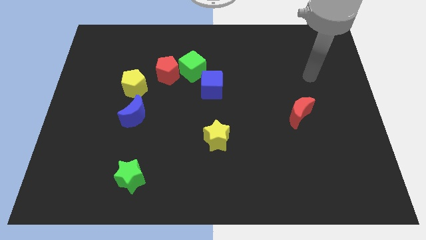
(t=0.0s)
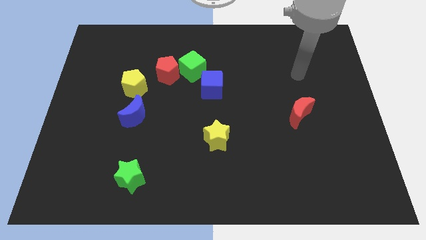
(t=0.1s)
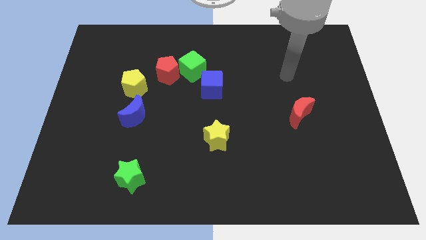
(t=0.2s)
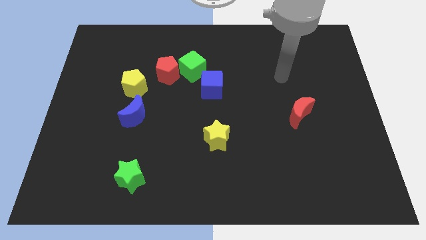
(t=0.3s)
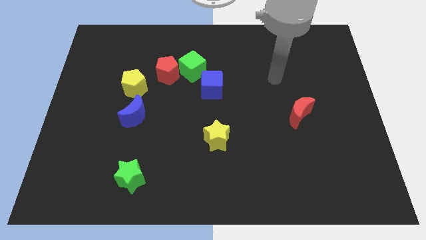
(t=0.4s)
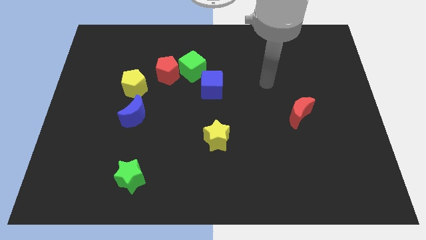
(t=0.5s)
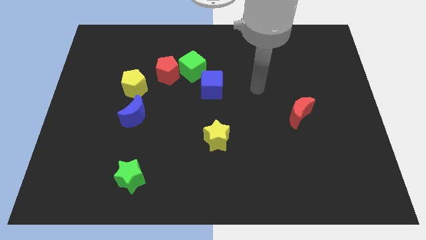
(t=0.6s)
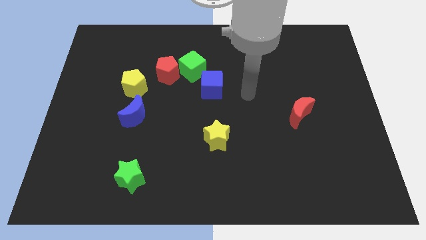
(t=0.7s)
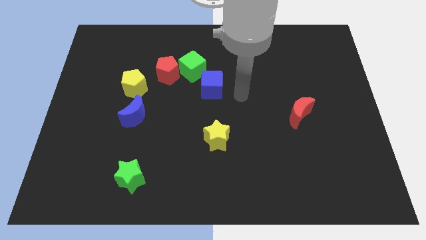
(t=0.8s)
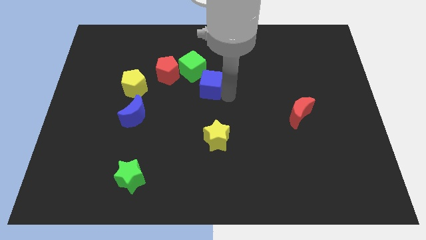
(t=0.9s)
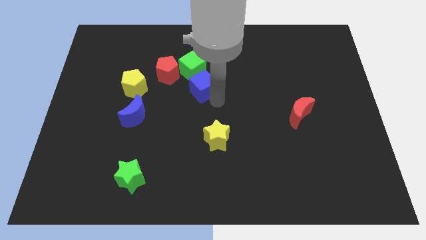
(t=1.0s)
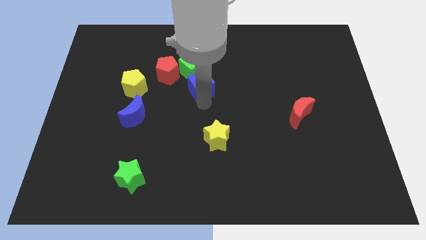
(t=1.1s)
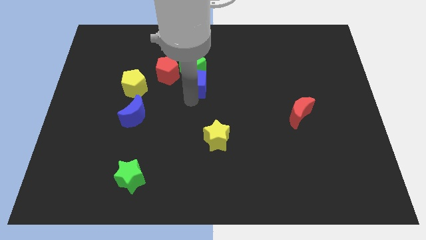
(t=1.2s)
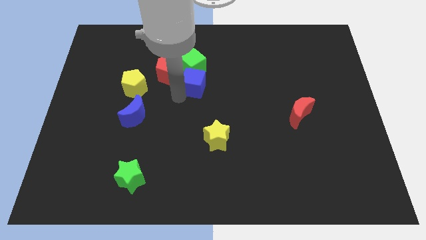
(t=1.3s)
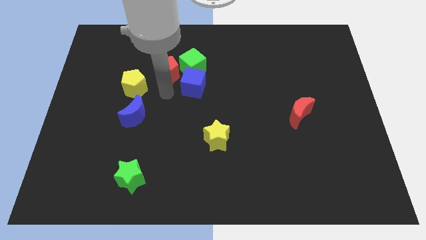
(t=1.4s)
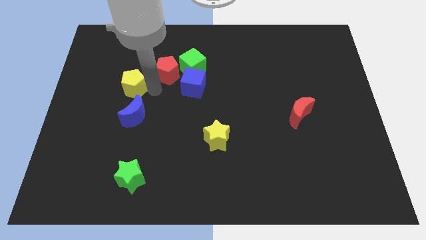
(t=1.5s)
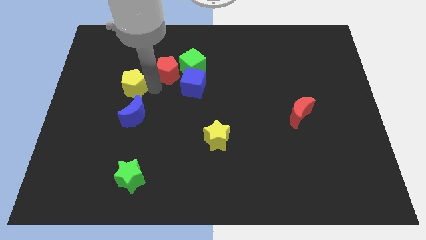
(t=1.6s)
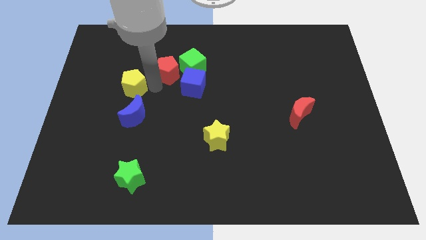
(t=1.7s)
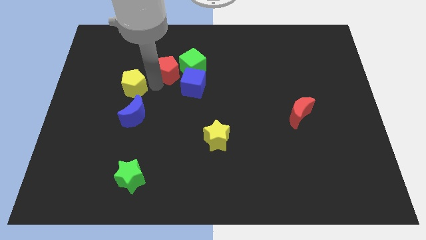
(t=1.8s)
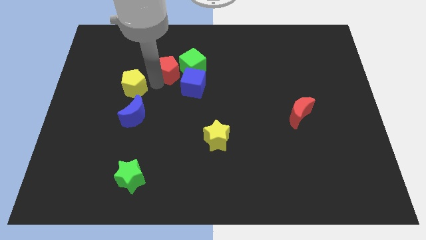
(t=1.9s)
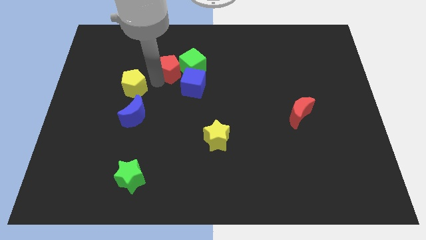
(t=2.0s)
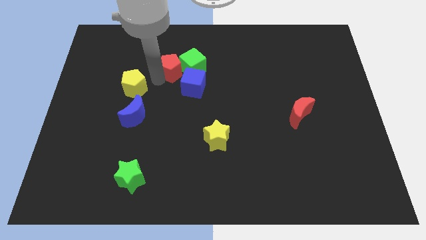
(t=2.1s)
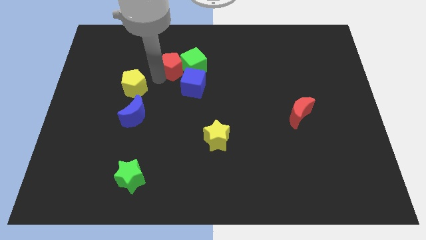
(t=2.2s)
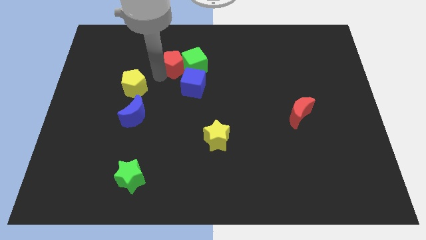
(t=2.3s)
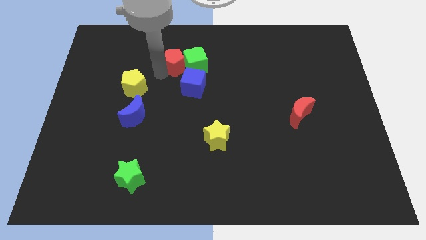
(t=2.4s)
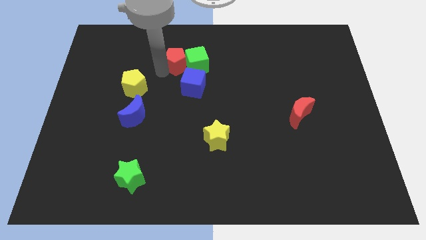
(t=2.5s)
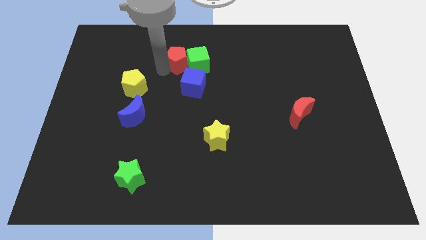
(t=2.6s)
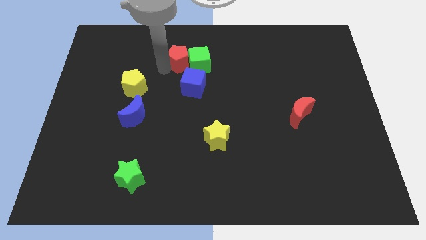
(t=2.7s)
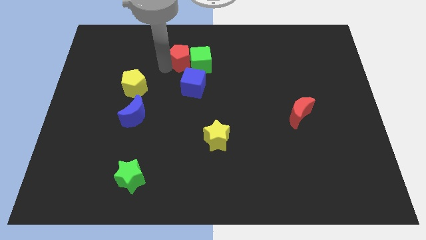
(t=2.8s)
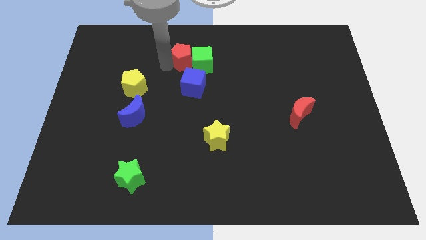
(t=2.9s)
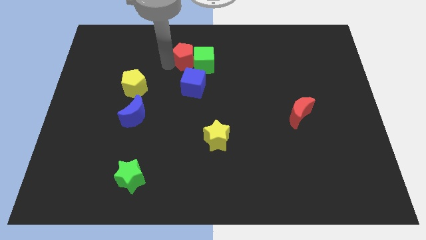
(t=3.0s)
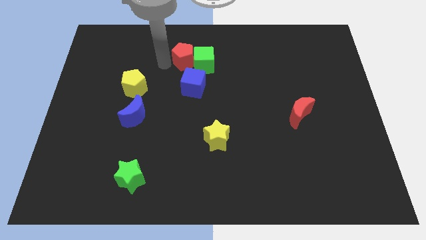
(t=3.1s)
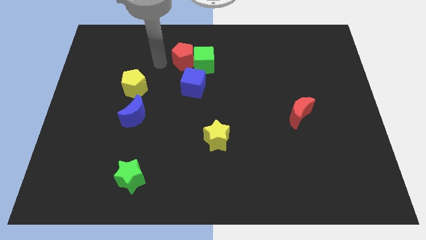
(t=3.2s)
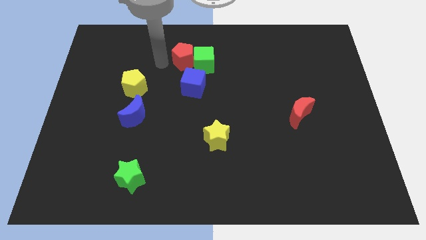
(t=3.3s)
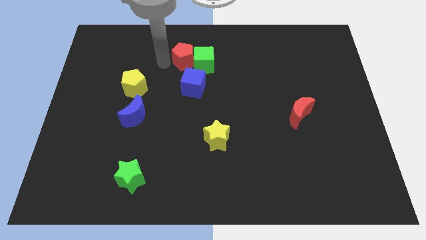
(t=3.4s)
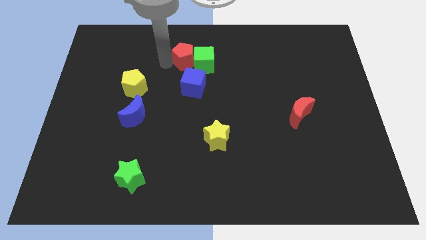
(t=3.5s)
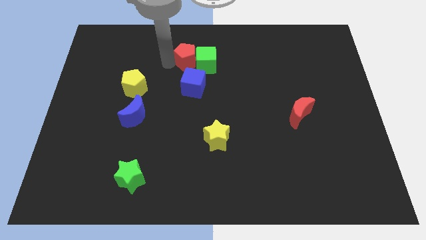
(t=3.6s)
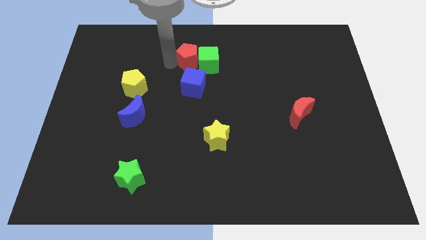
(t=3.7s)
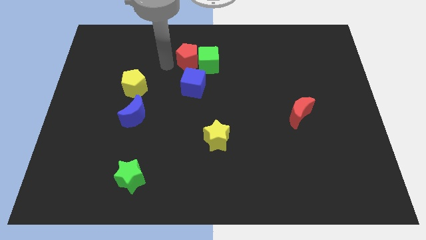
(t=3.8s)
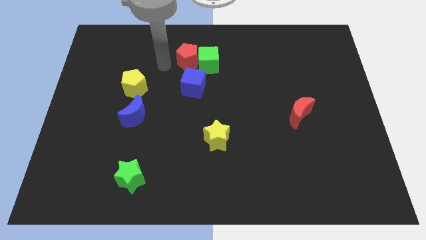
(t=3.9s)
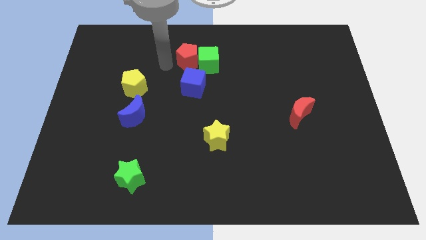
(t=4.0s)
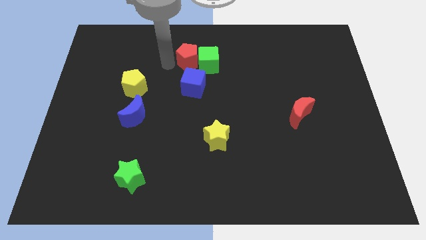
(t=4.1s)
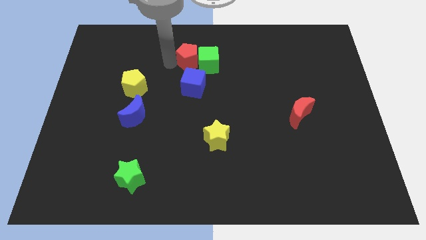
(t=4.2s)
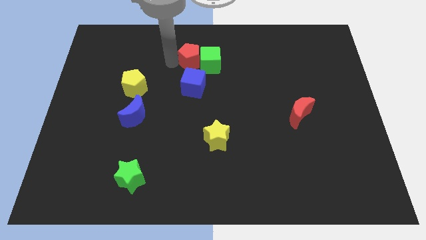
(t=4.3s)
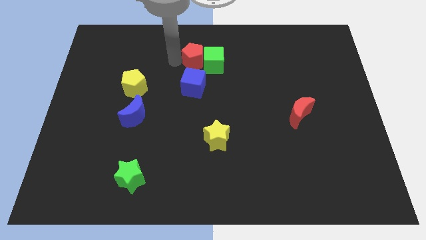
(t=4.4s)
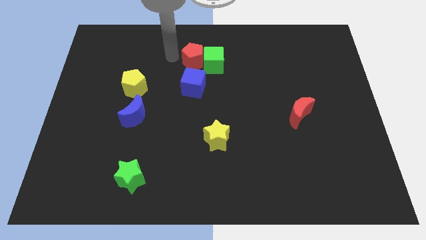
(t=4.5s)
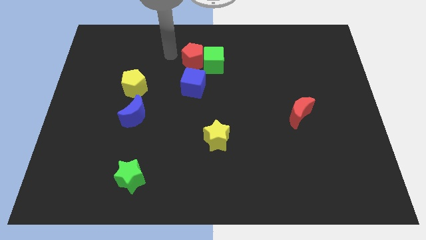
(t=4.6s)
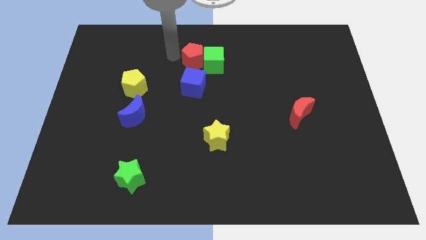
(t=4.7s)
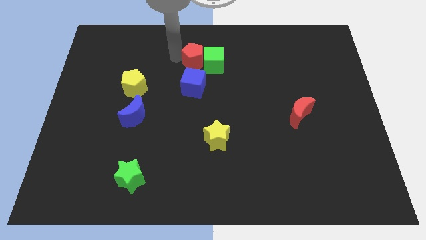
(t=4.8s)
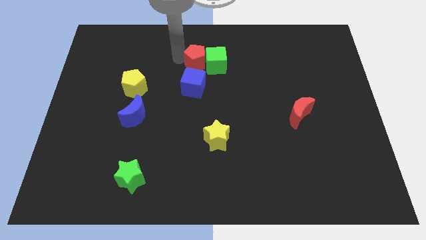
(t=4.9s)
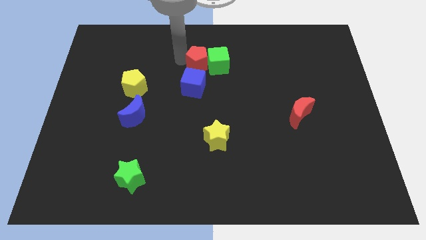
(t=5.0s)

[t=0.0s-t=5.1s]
slide the red pentagon right somewhat

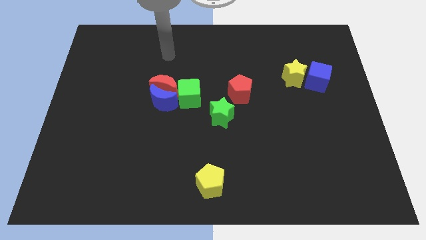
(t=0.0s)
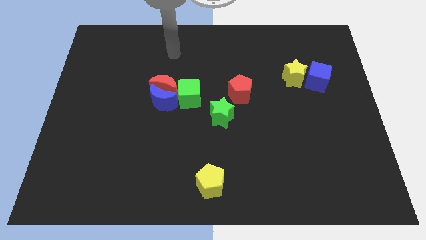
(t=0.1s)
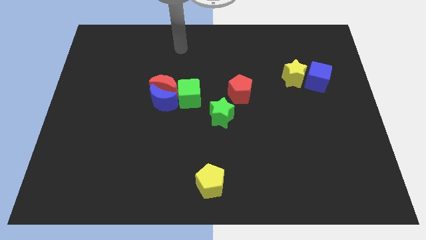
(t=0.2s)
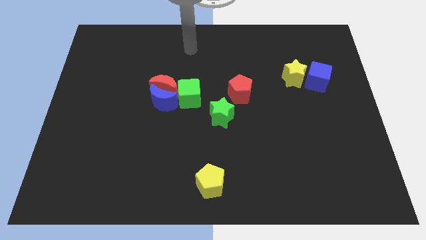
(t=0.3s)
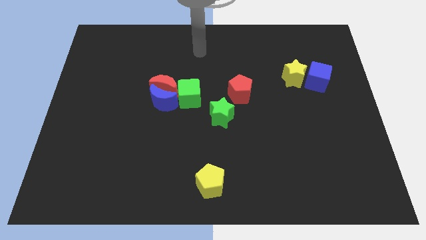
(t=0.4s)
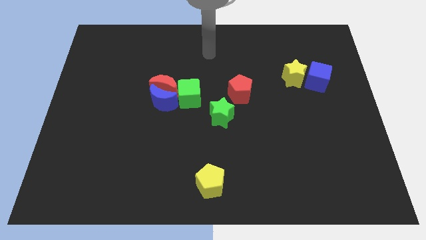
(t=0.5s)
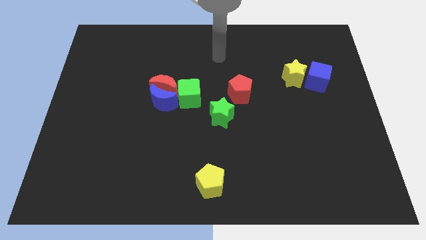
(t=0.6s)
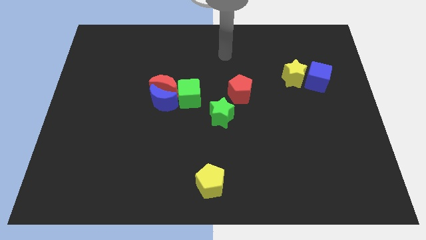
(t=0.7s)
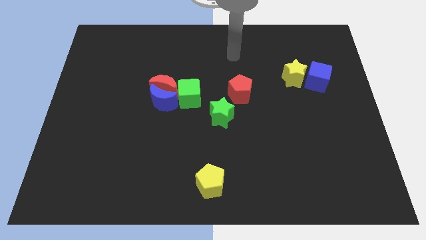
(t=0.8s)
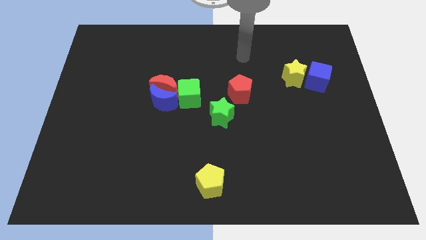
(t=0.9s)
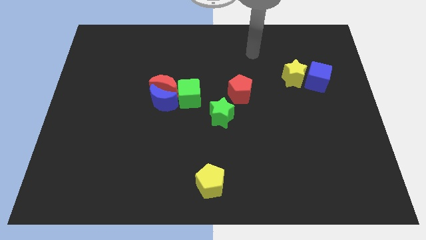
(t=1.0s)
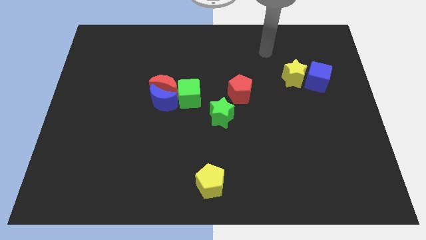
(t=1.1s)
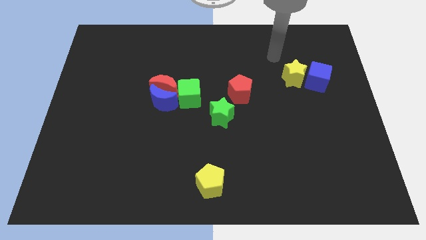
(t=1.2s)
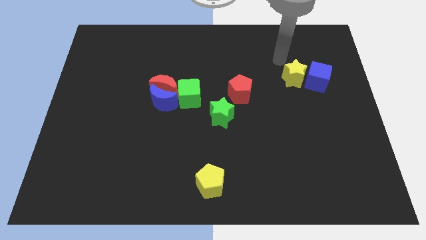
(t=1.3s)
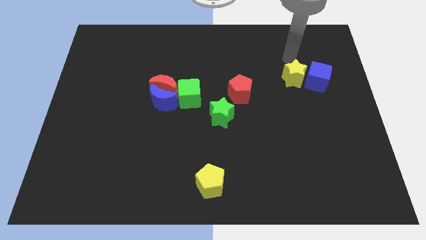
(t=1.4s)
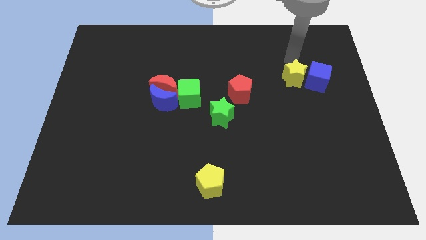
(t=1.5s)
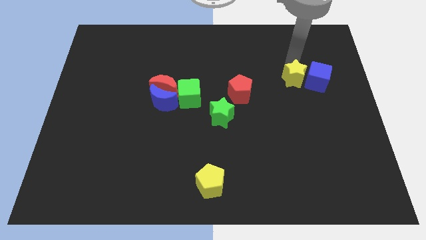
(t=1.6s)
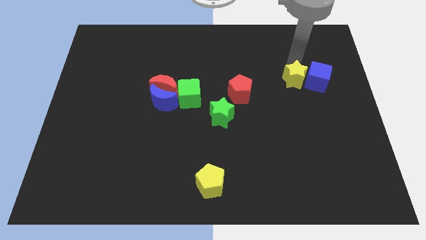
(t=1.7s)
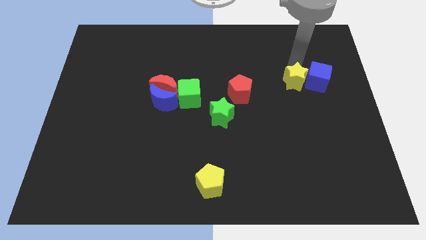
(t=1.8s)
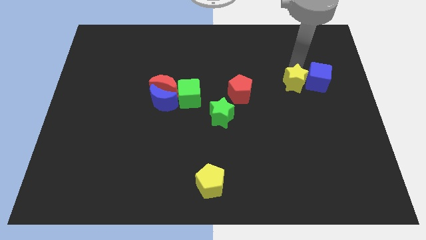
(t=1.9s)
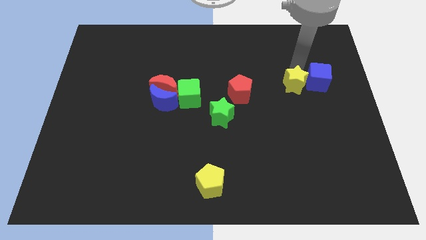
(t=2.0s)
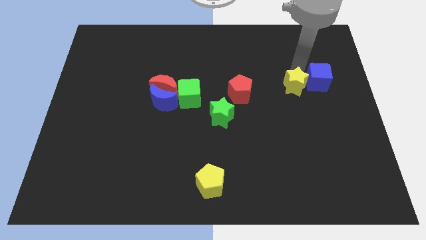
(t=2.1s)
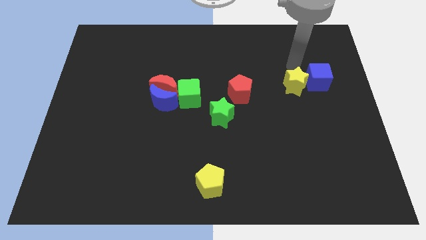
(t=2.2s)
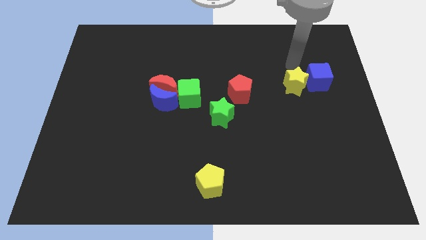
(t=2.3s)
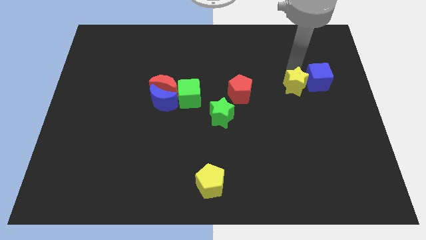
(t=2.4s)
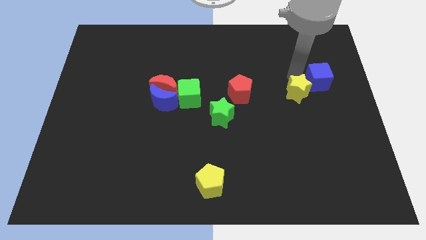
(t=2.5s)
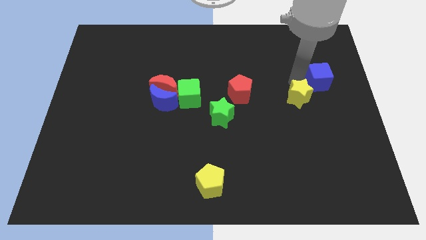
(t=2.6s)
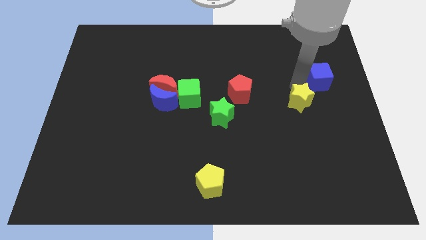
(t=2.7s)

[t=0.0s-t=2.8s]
slightly push the yellow star downwards
